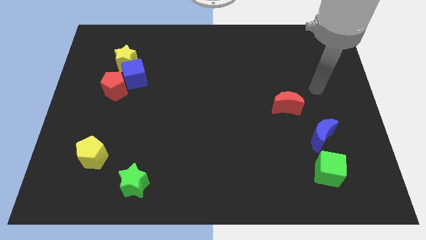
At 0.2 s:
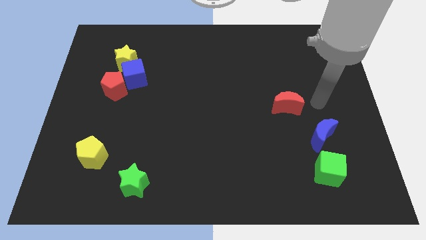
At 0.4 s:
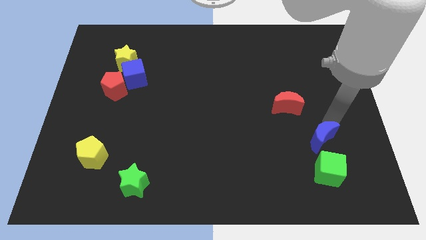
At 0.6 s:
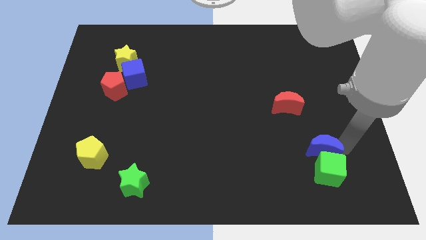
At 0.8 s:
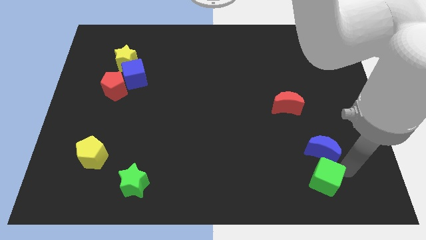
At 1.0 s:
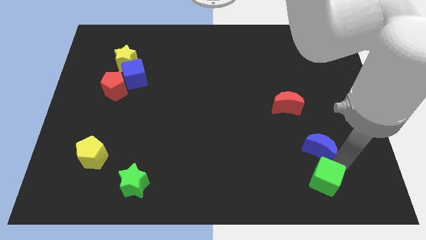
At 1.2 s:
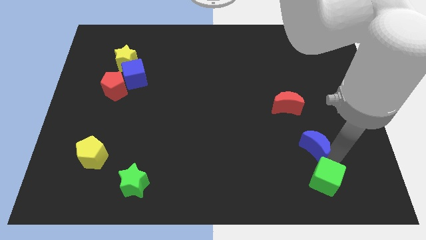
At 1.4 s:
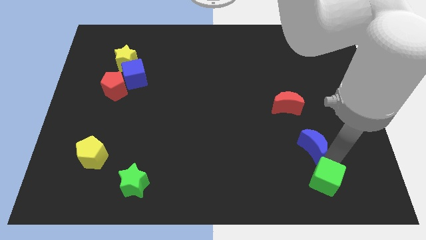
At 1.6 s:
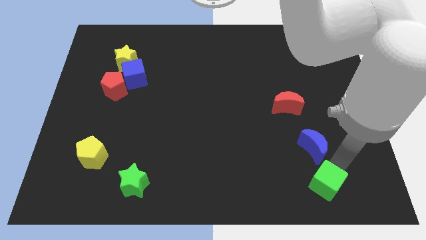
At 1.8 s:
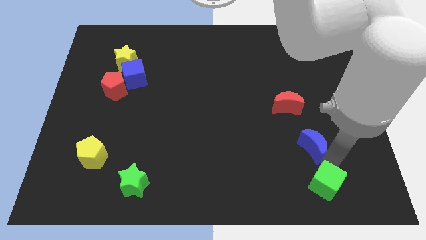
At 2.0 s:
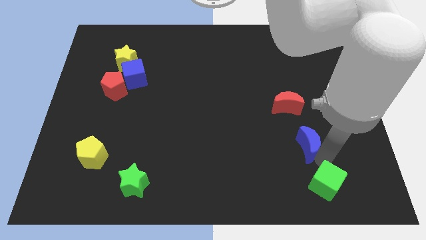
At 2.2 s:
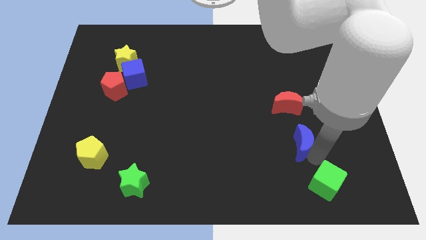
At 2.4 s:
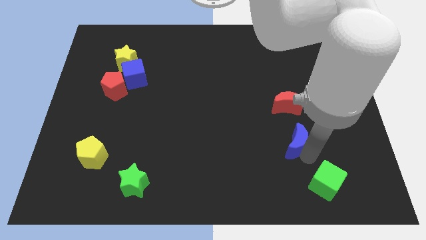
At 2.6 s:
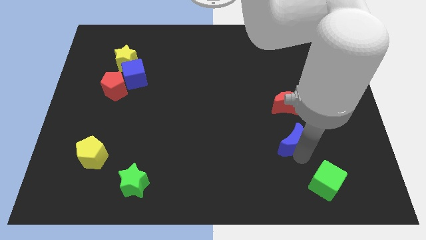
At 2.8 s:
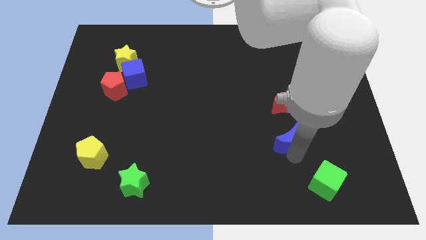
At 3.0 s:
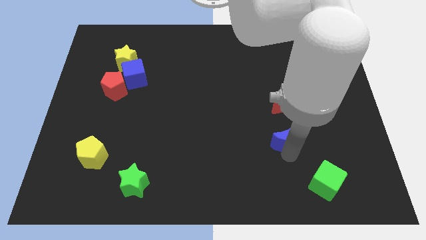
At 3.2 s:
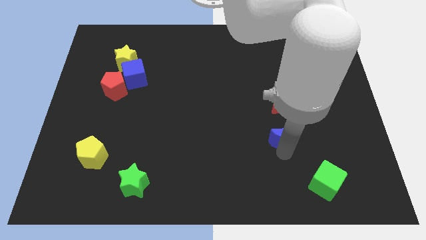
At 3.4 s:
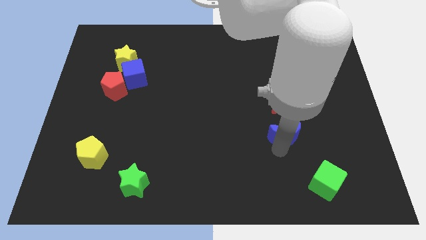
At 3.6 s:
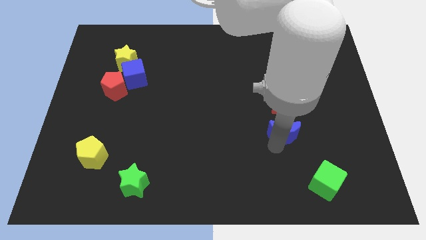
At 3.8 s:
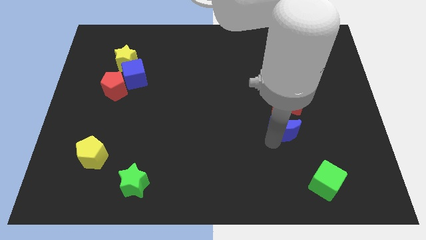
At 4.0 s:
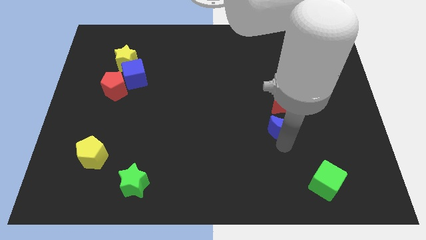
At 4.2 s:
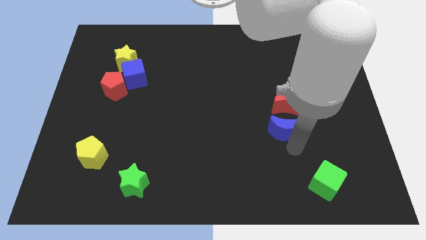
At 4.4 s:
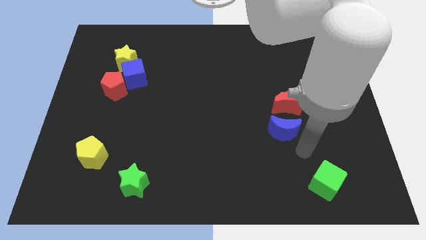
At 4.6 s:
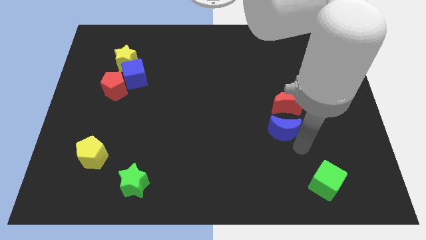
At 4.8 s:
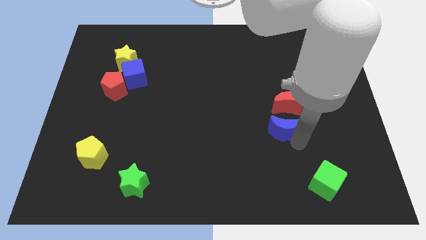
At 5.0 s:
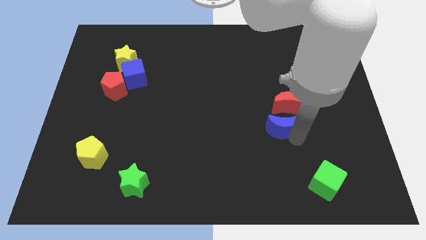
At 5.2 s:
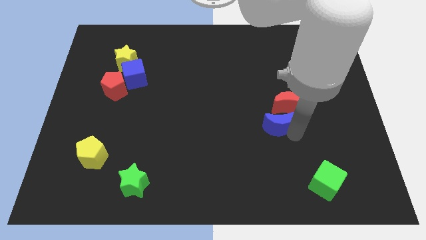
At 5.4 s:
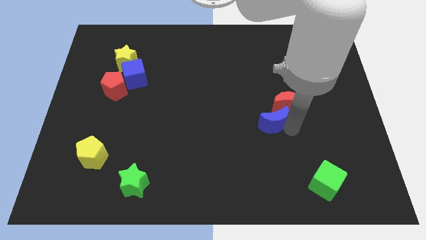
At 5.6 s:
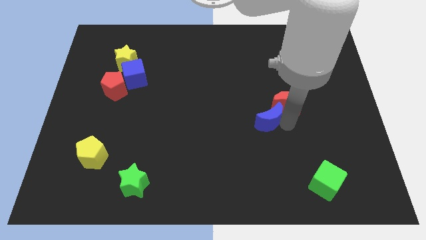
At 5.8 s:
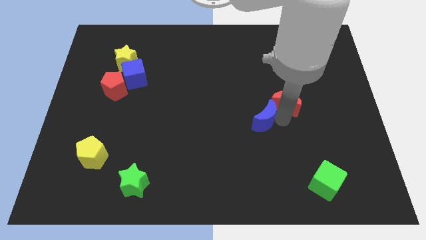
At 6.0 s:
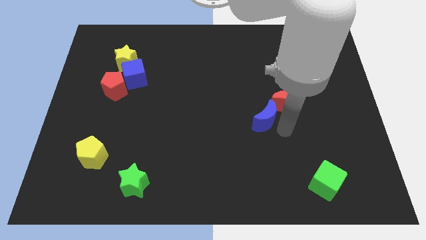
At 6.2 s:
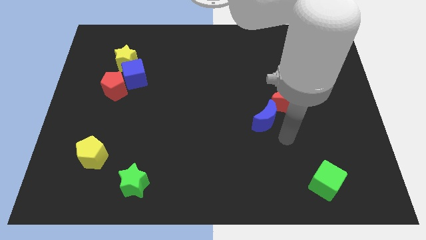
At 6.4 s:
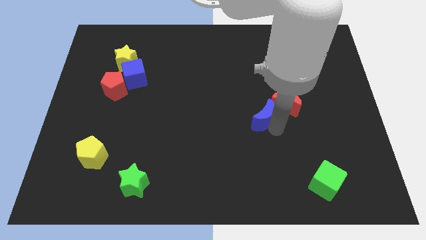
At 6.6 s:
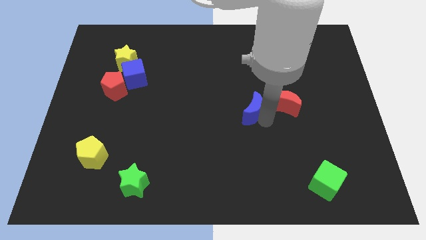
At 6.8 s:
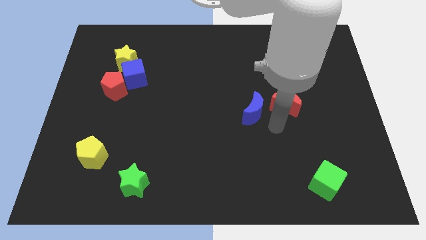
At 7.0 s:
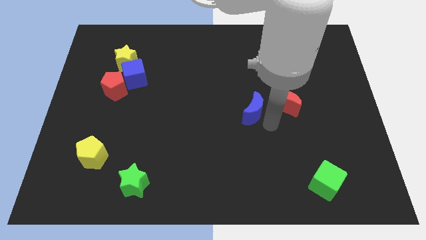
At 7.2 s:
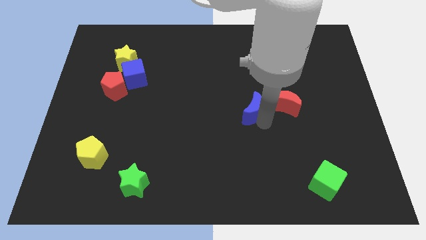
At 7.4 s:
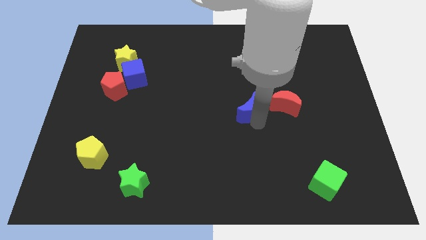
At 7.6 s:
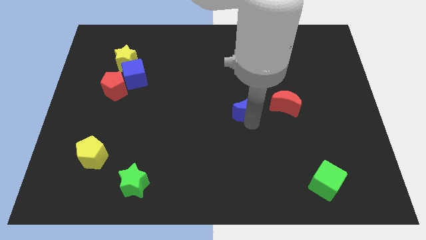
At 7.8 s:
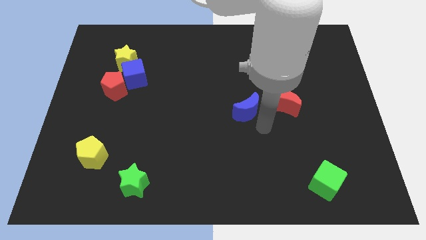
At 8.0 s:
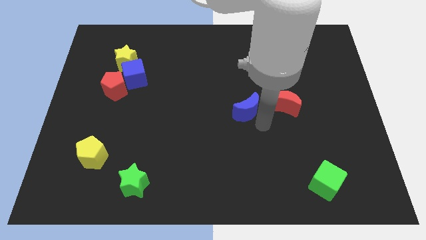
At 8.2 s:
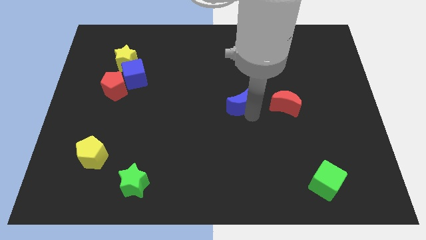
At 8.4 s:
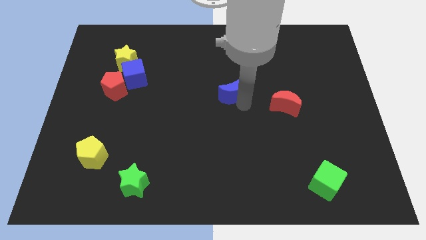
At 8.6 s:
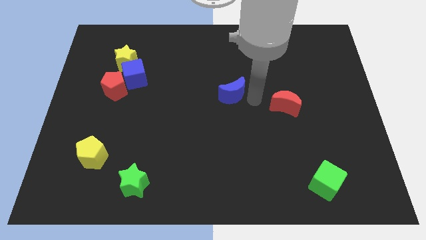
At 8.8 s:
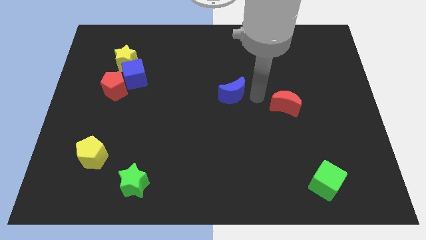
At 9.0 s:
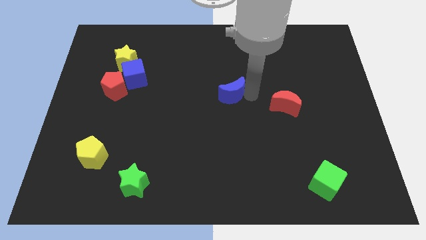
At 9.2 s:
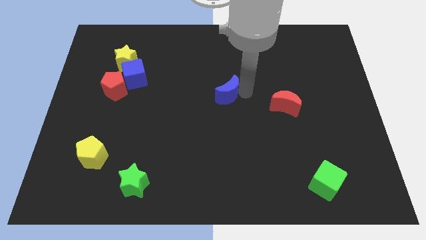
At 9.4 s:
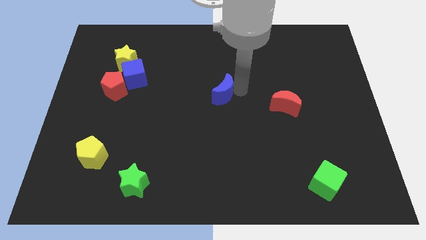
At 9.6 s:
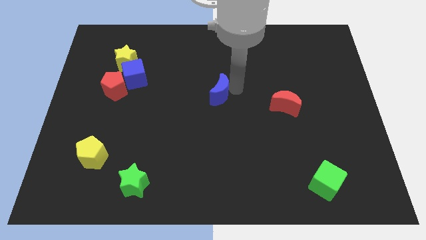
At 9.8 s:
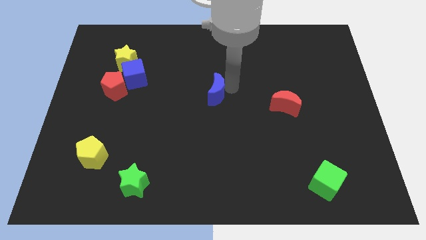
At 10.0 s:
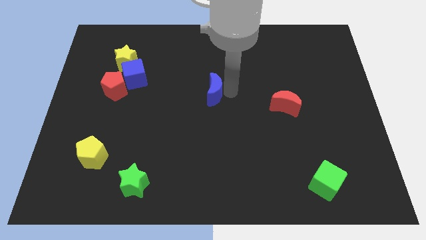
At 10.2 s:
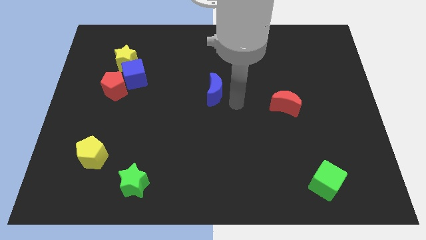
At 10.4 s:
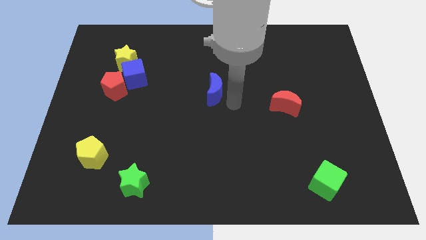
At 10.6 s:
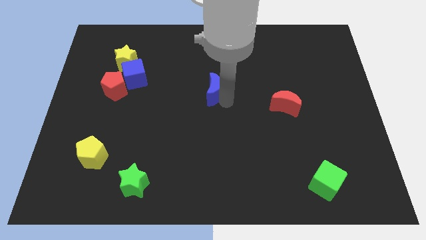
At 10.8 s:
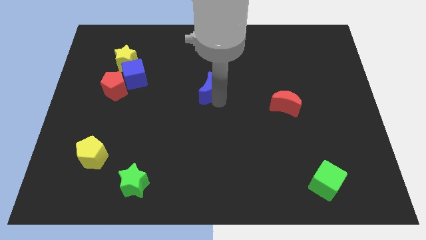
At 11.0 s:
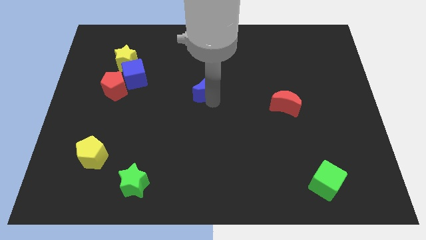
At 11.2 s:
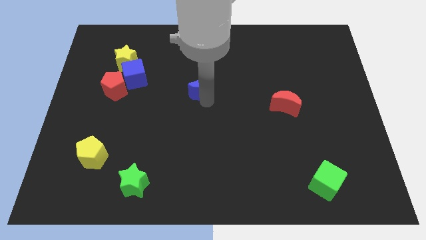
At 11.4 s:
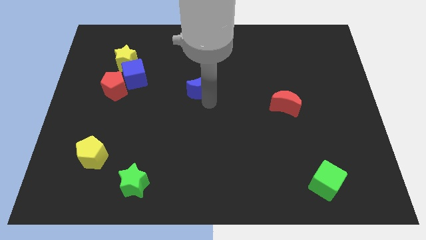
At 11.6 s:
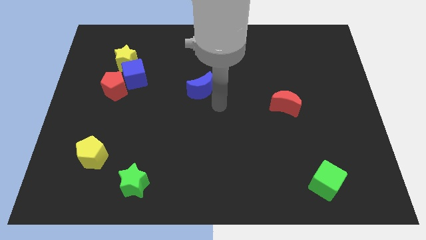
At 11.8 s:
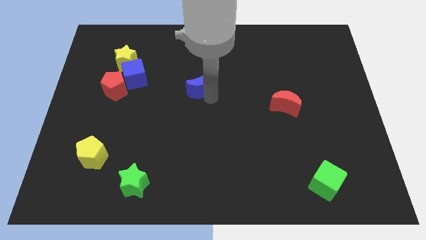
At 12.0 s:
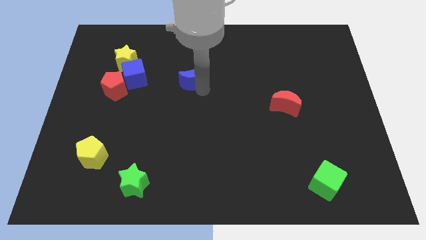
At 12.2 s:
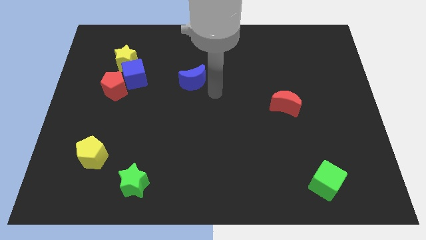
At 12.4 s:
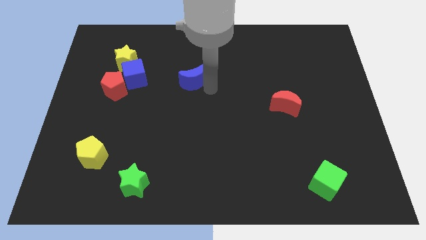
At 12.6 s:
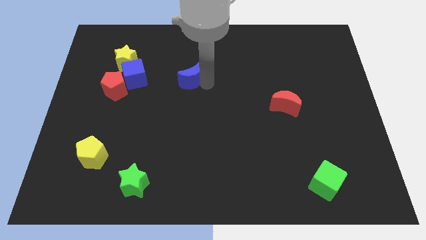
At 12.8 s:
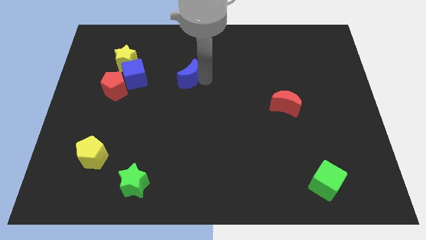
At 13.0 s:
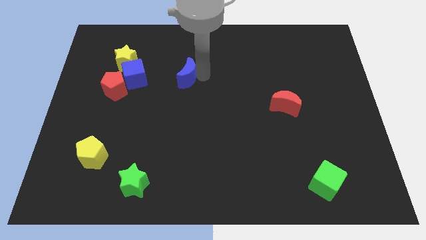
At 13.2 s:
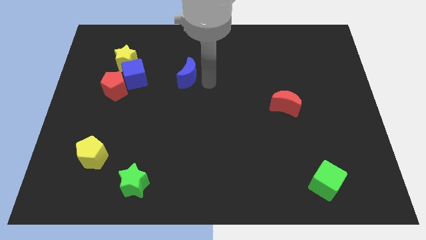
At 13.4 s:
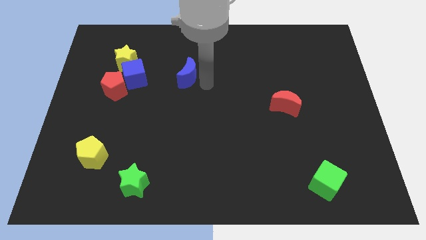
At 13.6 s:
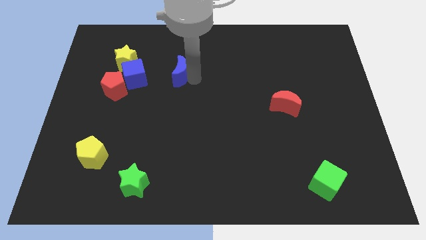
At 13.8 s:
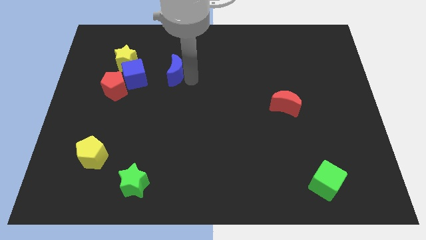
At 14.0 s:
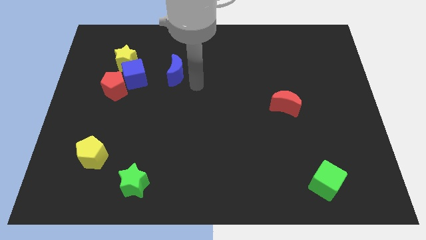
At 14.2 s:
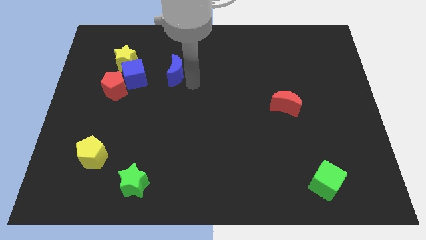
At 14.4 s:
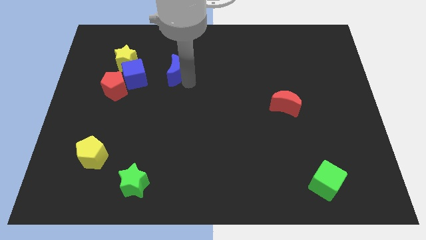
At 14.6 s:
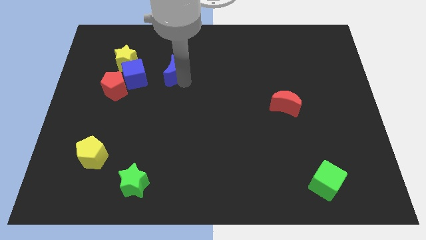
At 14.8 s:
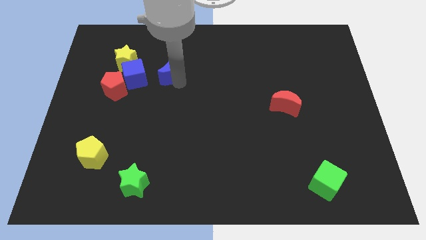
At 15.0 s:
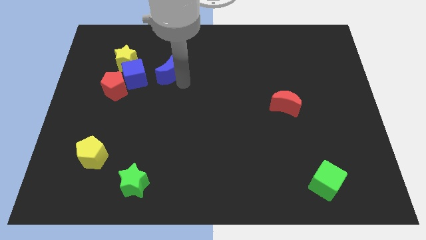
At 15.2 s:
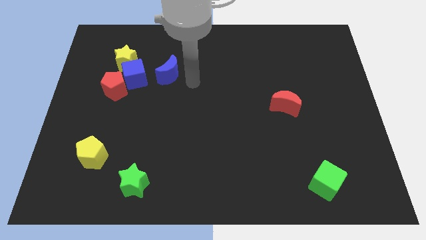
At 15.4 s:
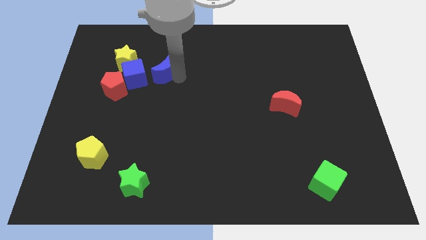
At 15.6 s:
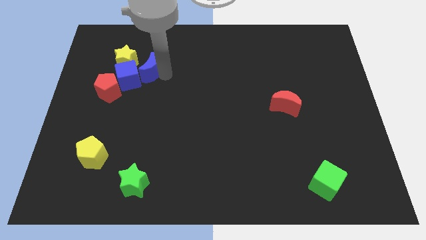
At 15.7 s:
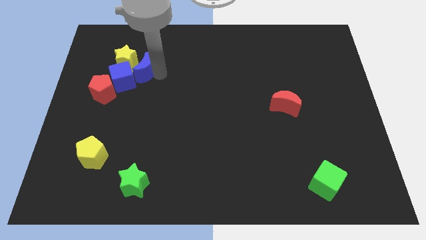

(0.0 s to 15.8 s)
slide the blue moon towards the yellow star
